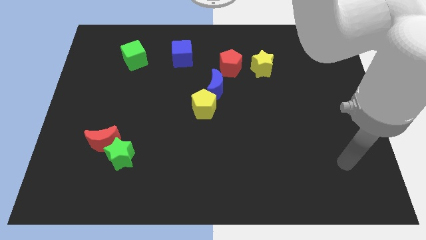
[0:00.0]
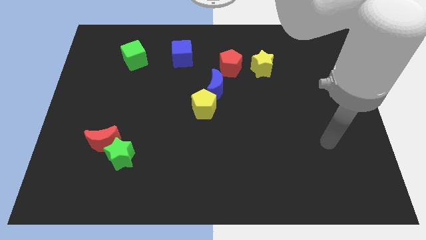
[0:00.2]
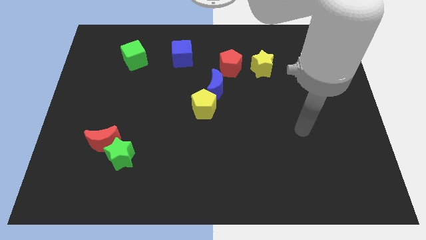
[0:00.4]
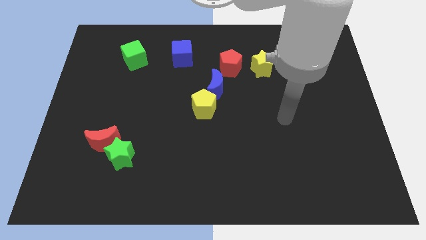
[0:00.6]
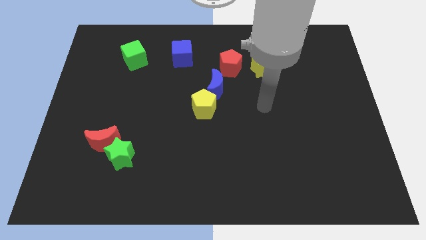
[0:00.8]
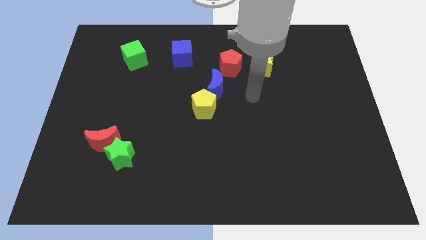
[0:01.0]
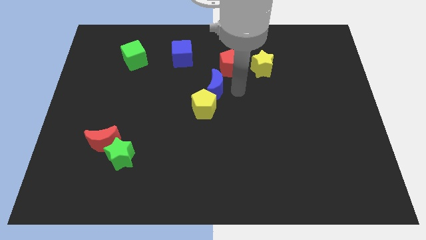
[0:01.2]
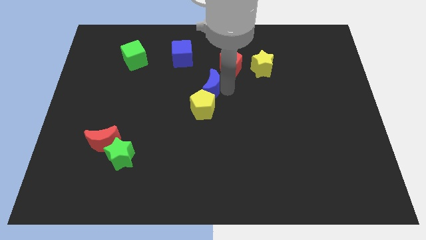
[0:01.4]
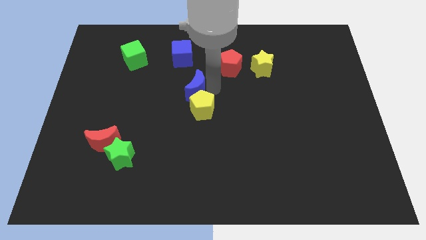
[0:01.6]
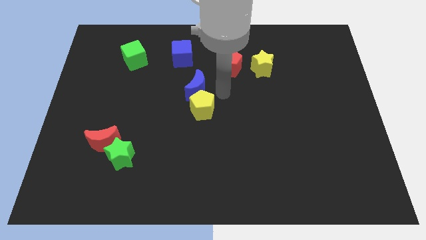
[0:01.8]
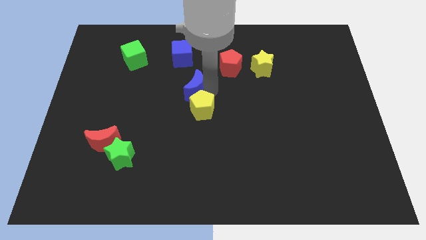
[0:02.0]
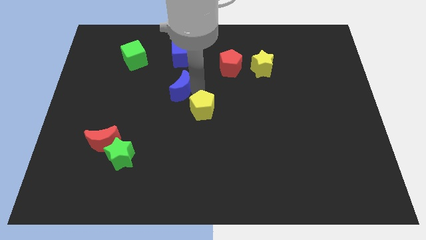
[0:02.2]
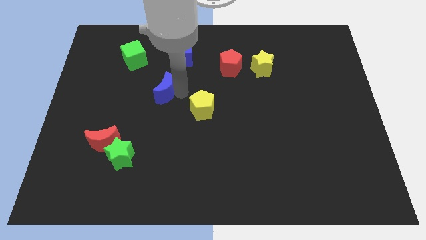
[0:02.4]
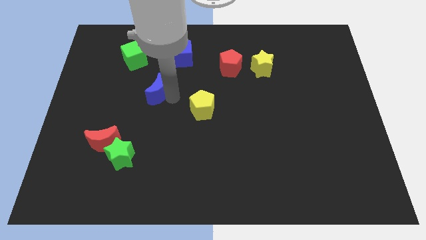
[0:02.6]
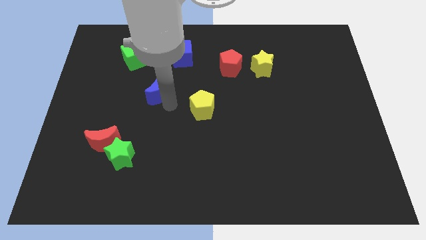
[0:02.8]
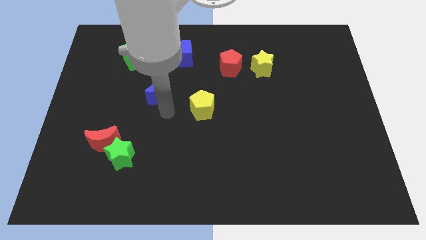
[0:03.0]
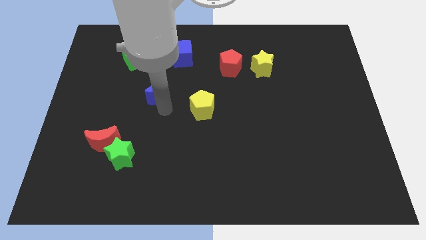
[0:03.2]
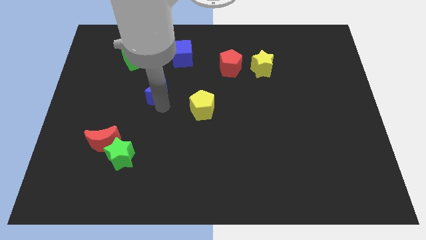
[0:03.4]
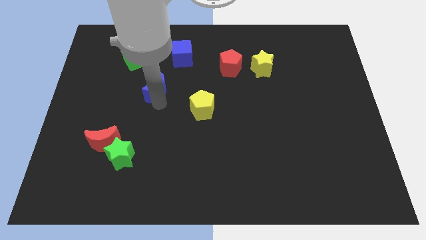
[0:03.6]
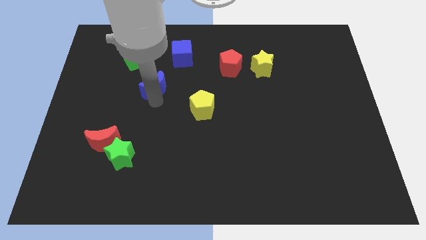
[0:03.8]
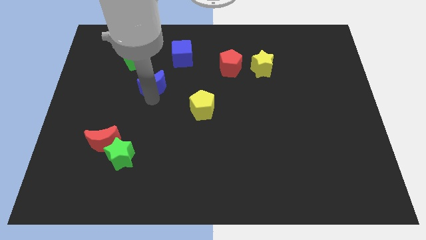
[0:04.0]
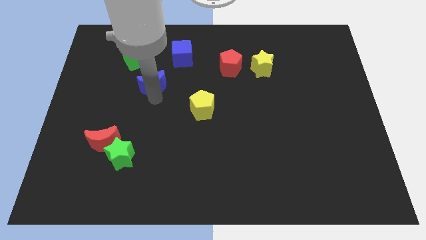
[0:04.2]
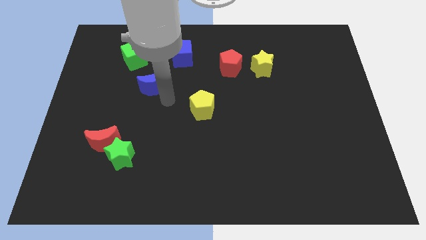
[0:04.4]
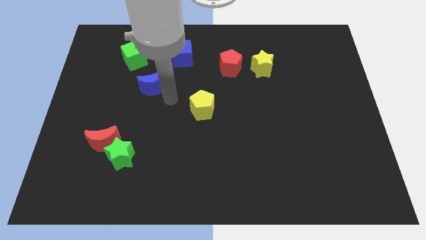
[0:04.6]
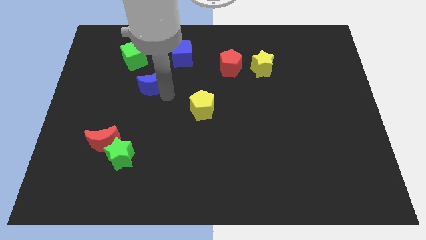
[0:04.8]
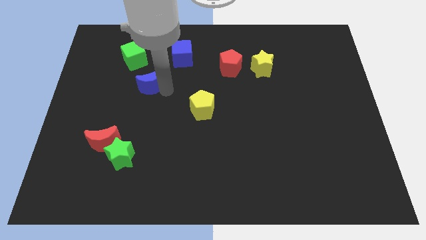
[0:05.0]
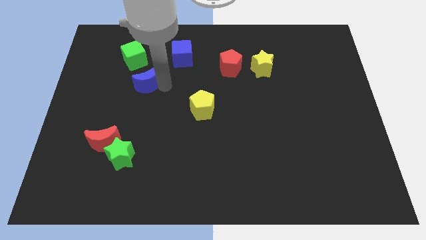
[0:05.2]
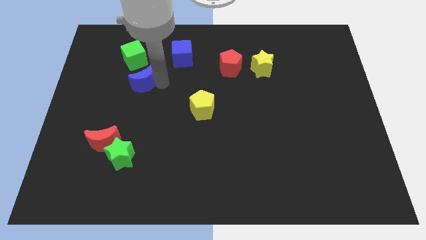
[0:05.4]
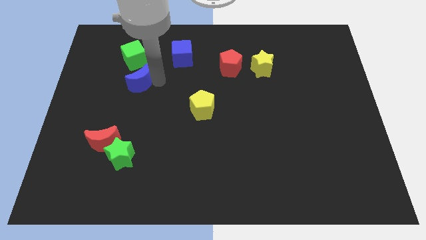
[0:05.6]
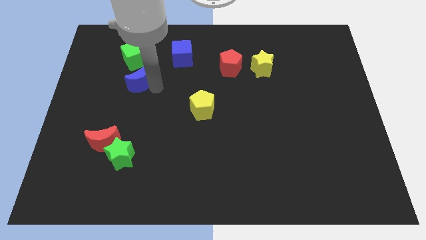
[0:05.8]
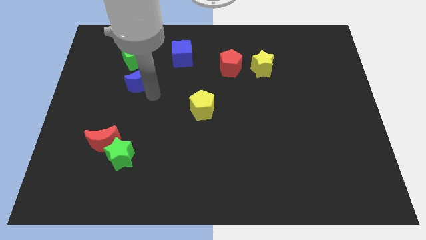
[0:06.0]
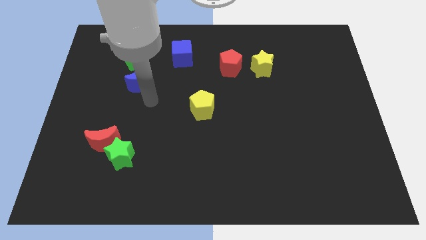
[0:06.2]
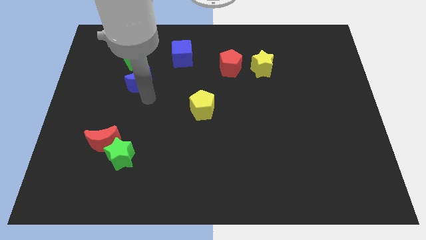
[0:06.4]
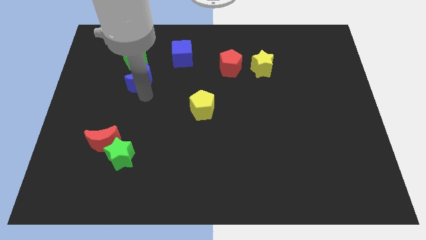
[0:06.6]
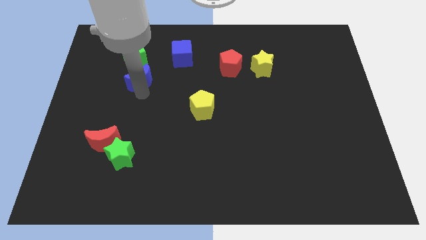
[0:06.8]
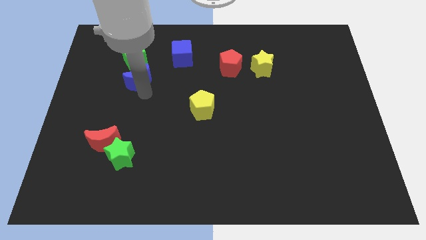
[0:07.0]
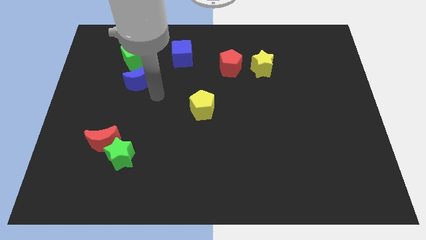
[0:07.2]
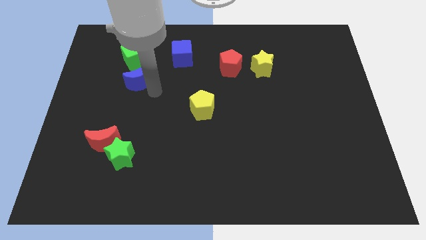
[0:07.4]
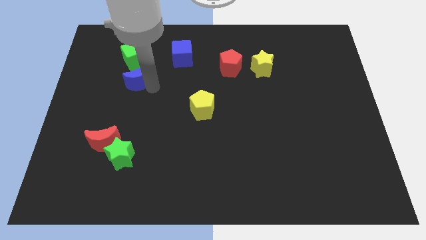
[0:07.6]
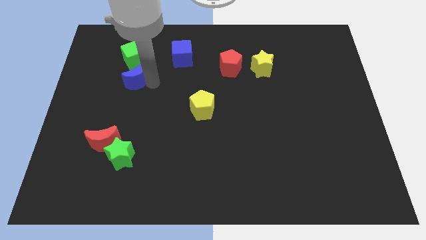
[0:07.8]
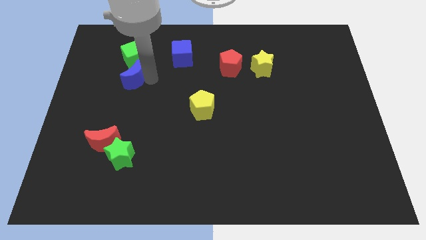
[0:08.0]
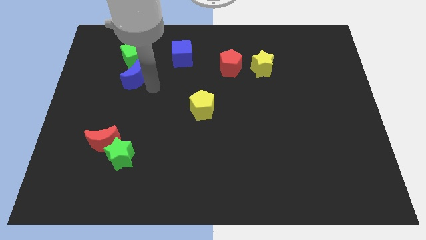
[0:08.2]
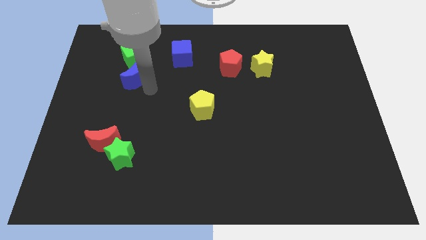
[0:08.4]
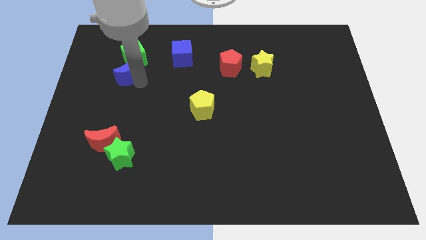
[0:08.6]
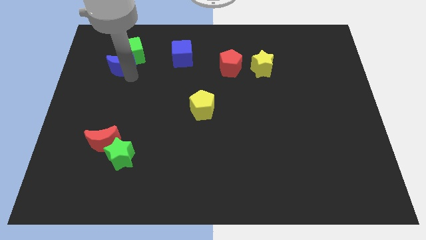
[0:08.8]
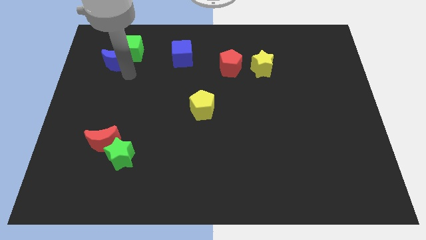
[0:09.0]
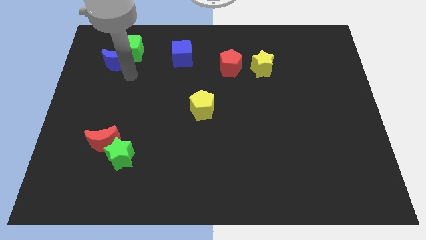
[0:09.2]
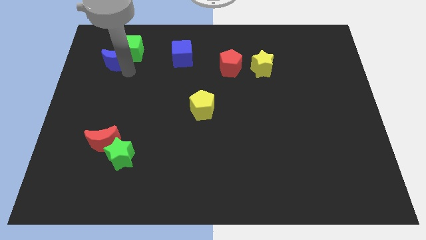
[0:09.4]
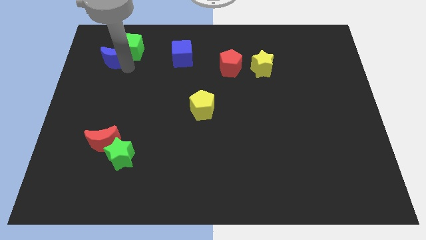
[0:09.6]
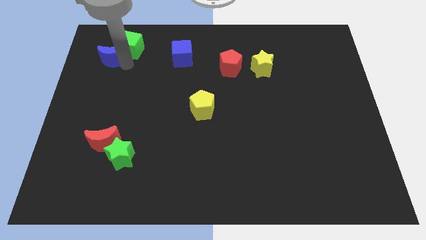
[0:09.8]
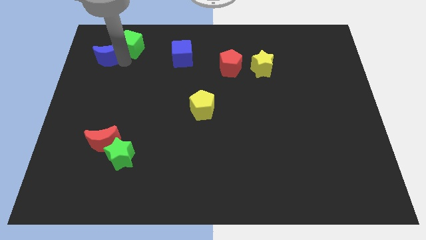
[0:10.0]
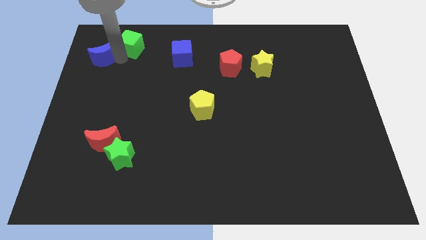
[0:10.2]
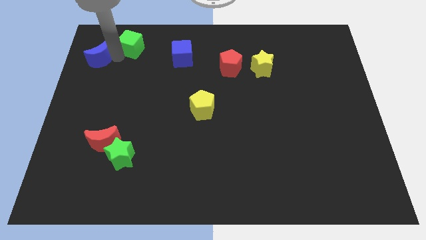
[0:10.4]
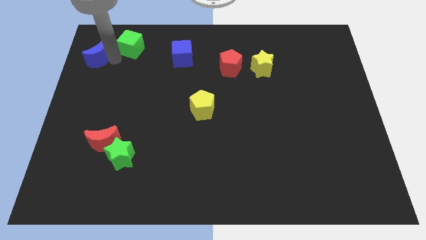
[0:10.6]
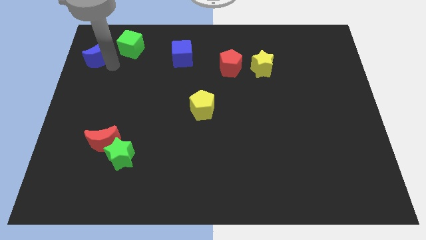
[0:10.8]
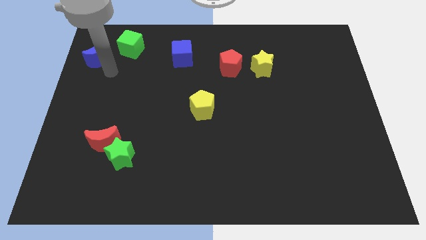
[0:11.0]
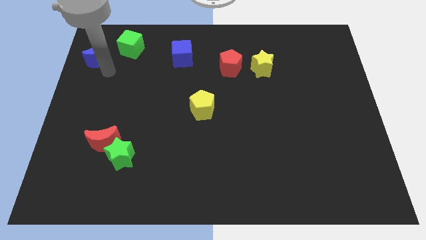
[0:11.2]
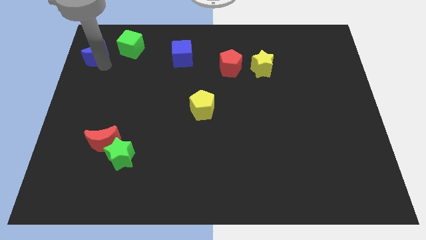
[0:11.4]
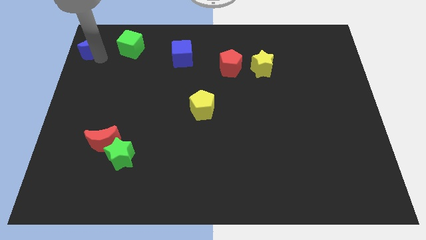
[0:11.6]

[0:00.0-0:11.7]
move the blue moon to the upper left corner

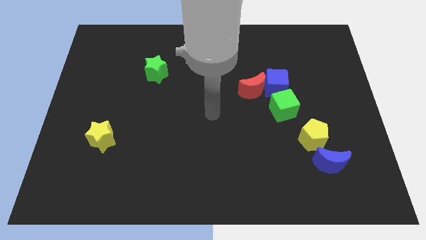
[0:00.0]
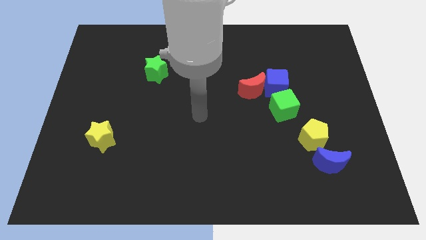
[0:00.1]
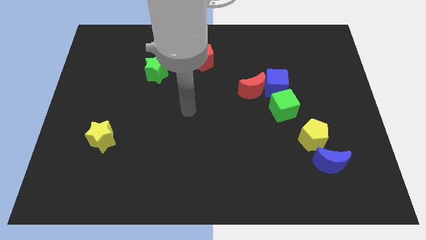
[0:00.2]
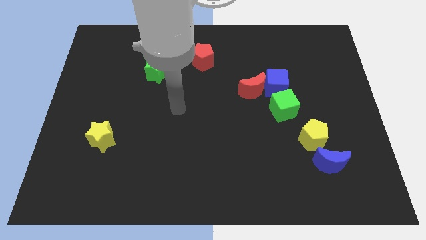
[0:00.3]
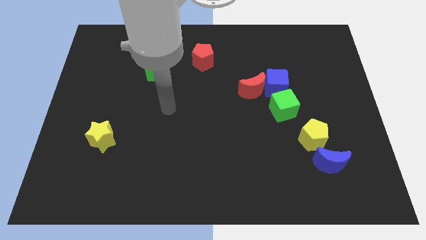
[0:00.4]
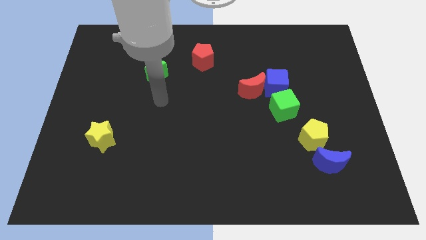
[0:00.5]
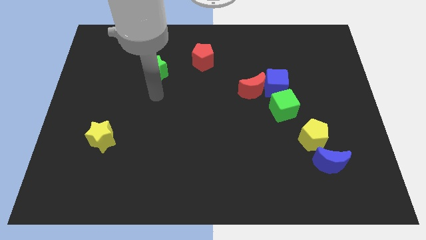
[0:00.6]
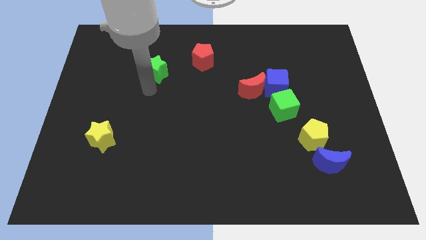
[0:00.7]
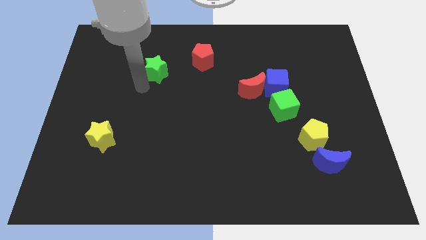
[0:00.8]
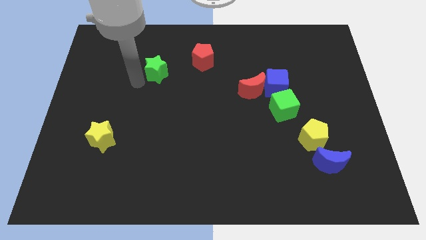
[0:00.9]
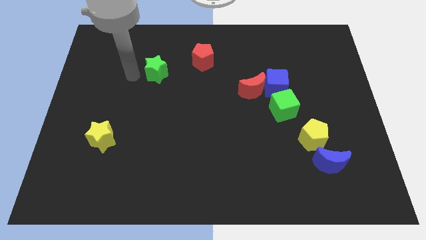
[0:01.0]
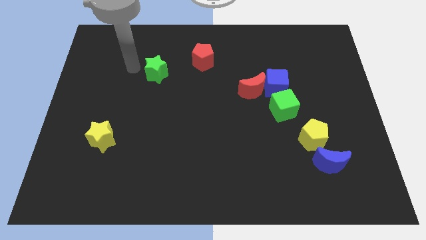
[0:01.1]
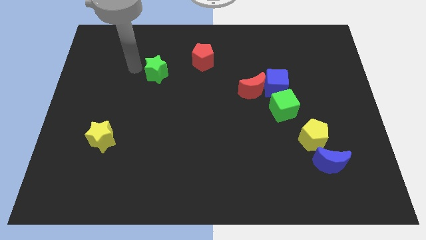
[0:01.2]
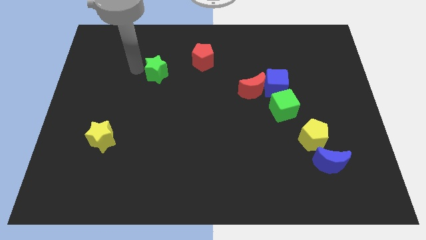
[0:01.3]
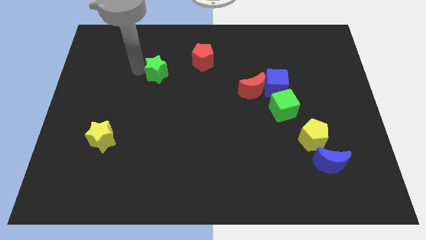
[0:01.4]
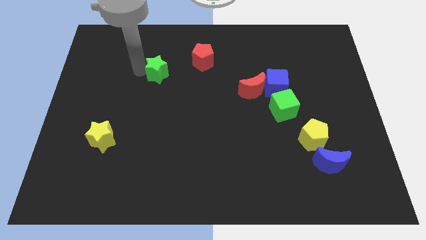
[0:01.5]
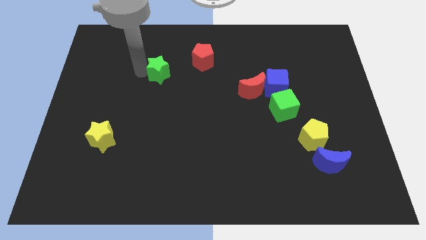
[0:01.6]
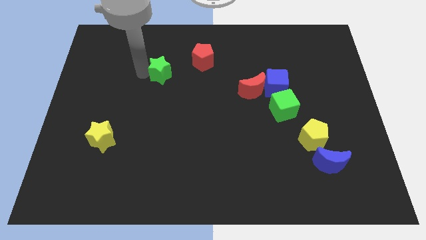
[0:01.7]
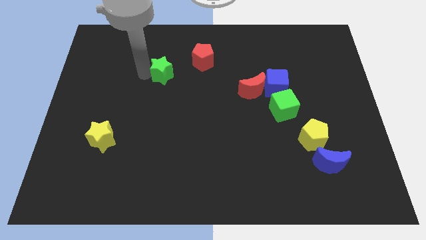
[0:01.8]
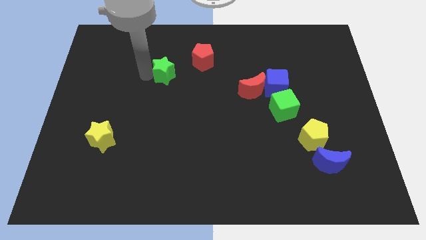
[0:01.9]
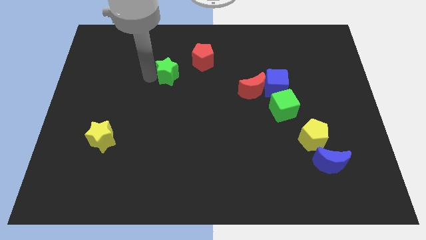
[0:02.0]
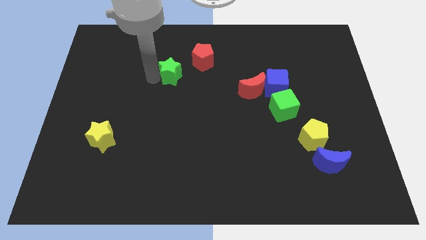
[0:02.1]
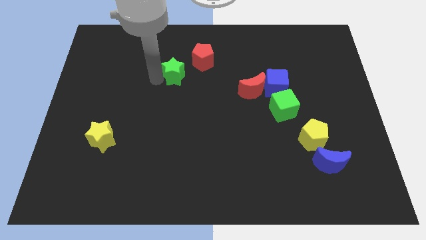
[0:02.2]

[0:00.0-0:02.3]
push the green star to the middle
